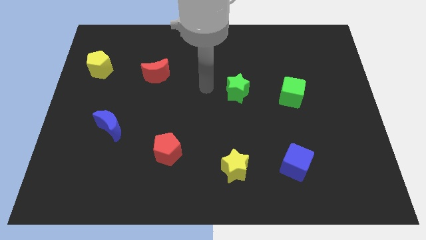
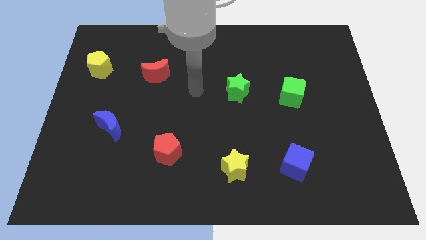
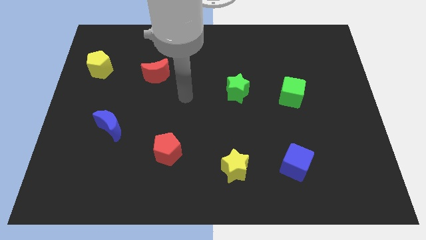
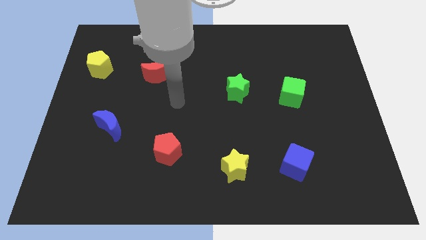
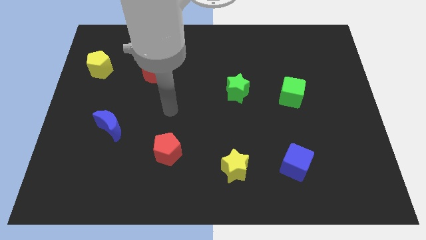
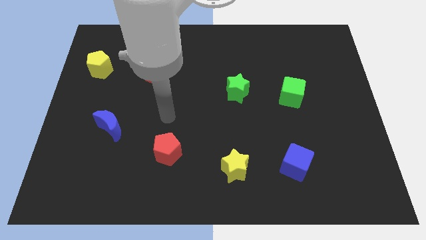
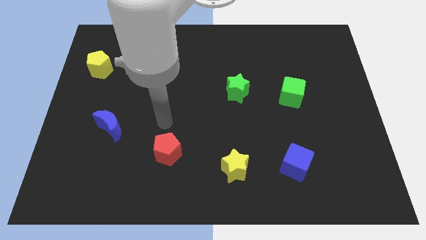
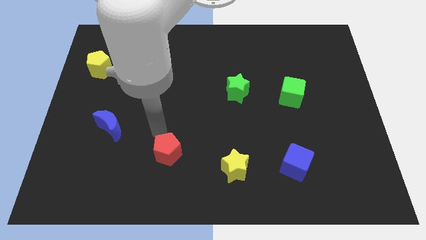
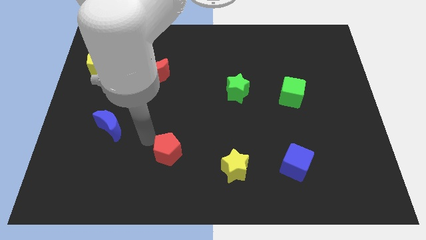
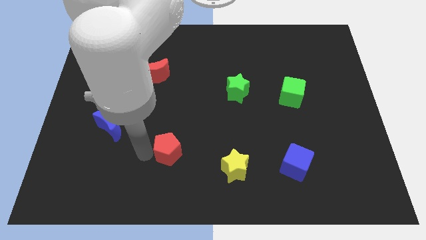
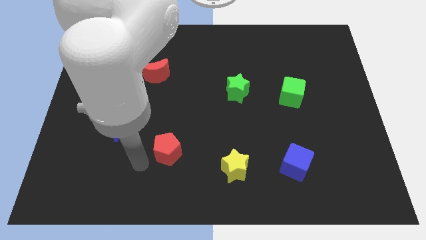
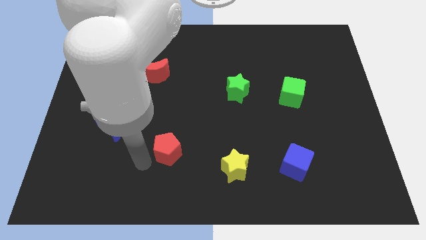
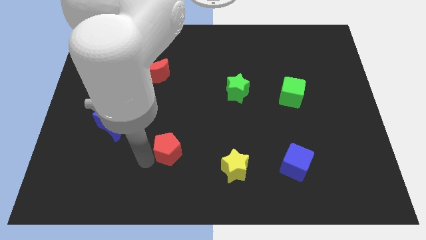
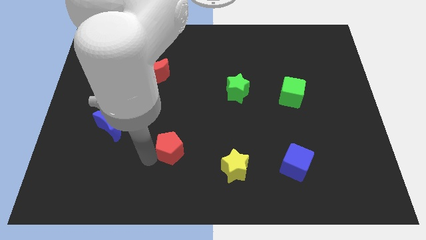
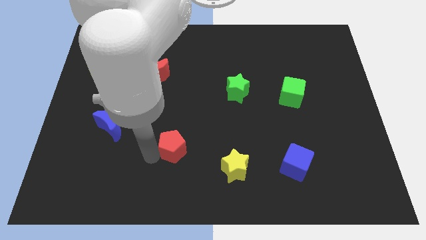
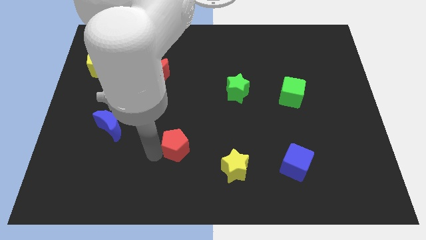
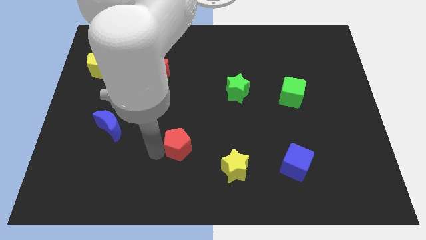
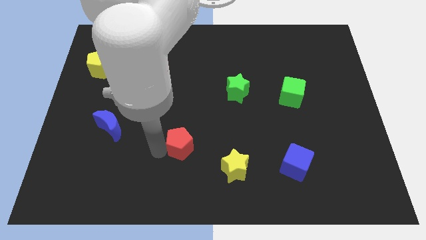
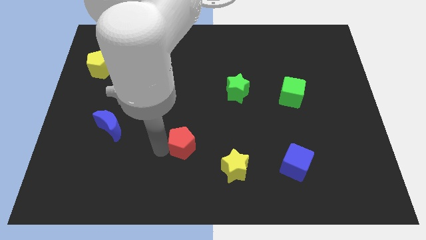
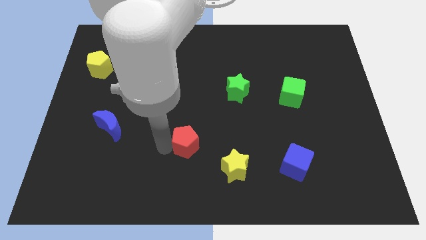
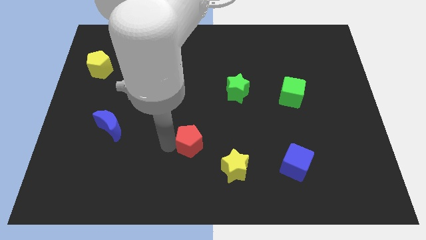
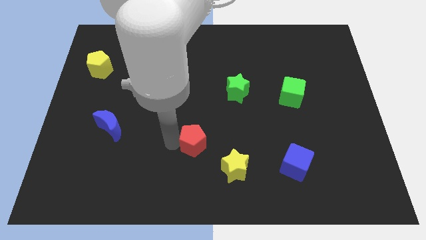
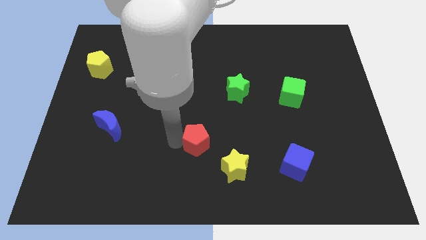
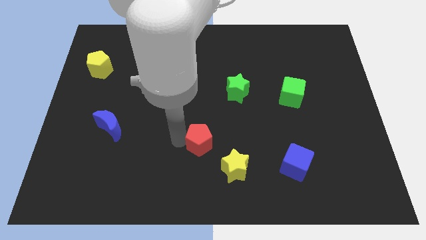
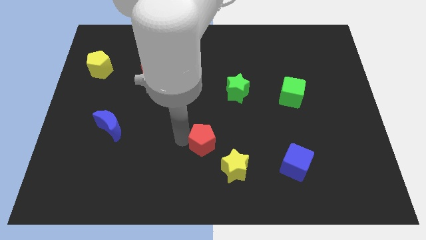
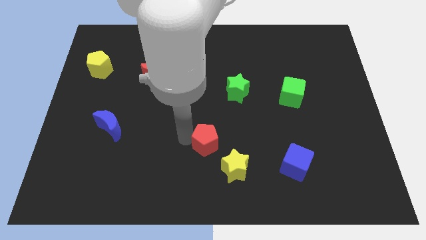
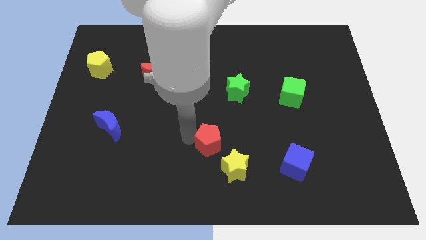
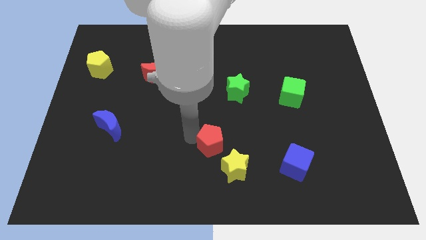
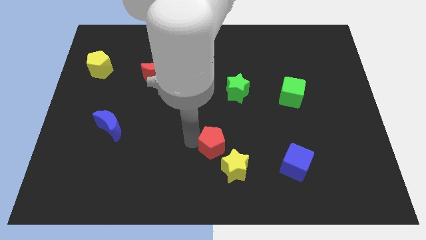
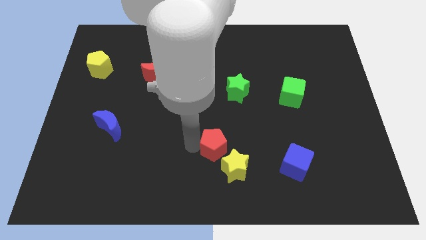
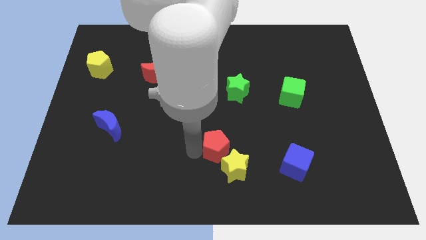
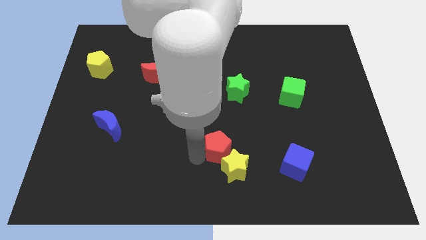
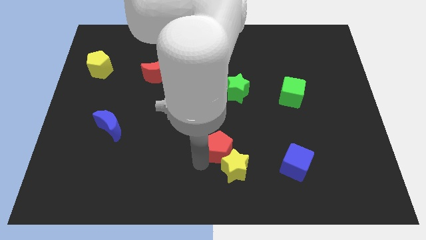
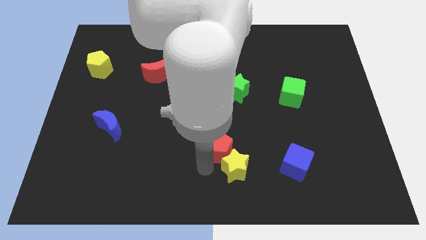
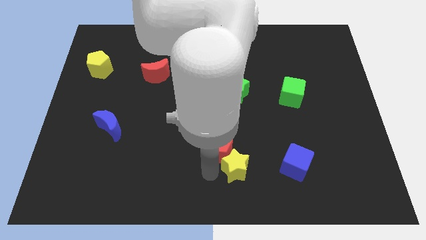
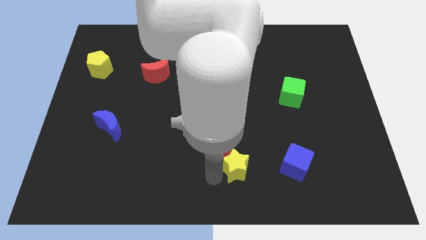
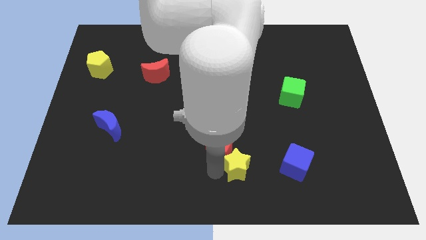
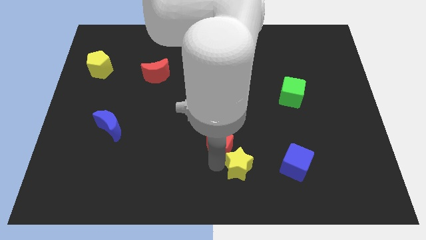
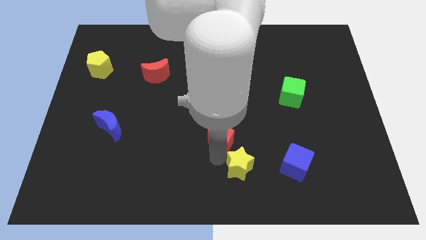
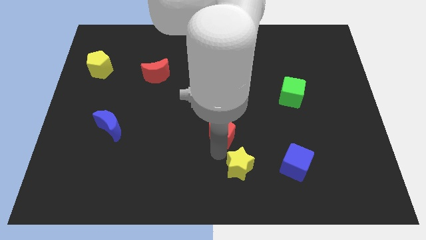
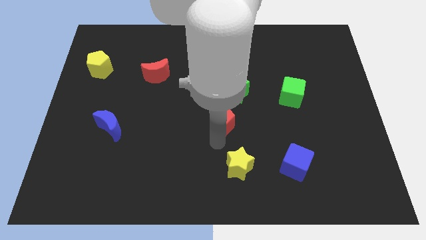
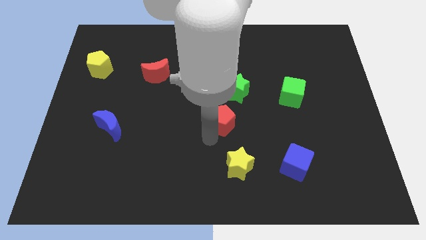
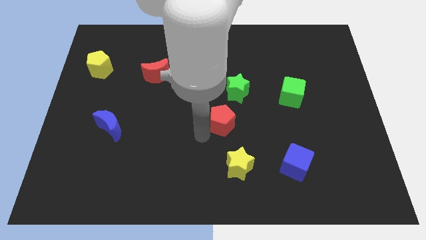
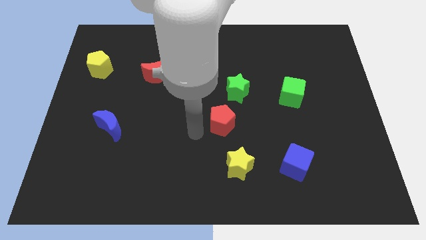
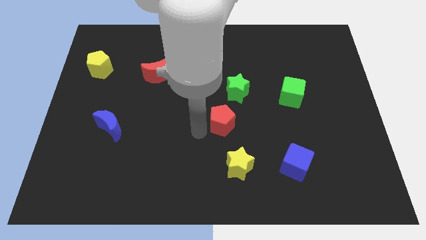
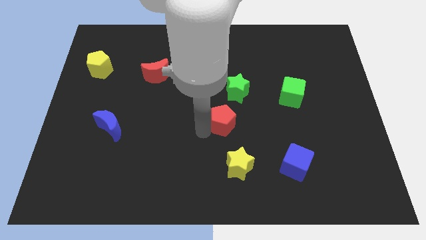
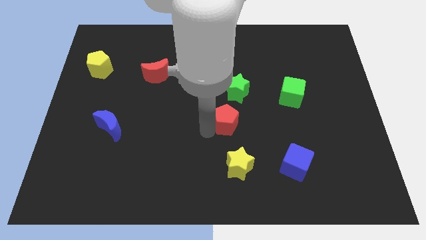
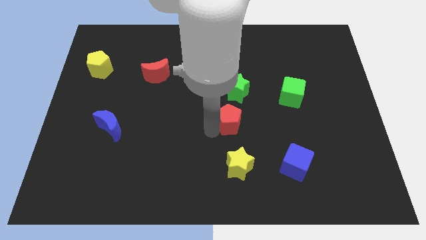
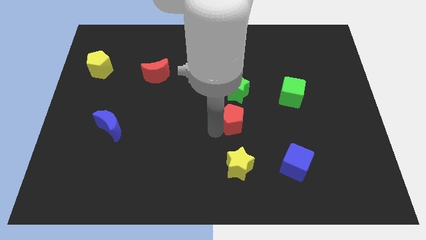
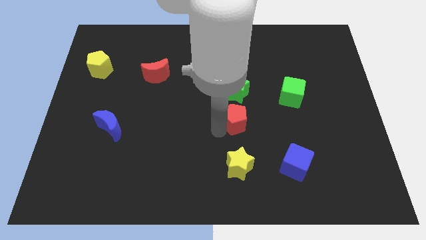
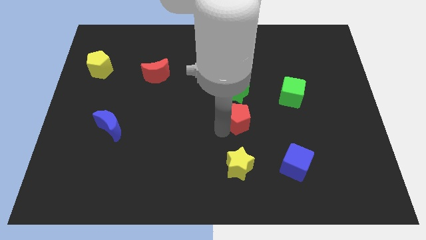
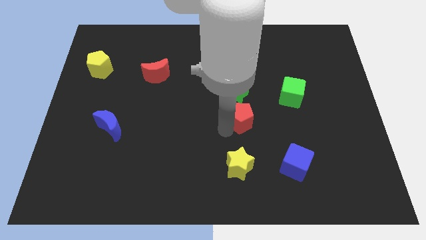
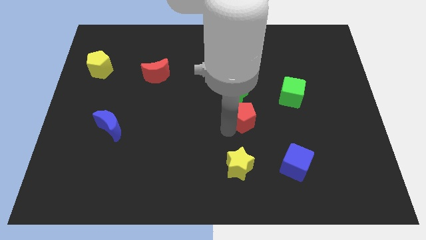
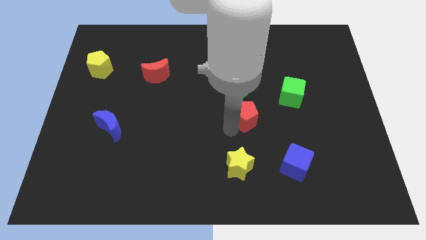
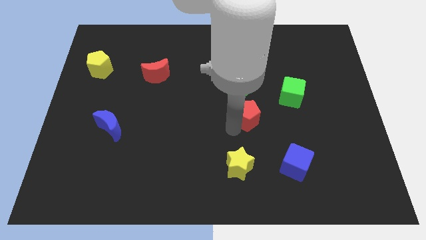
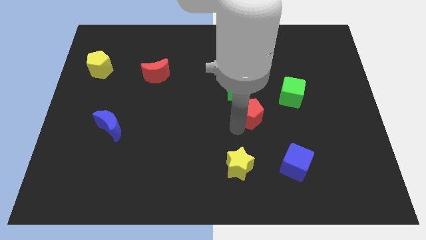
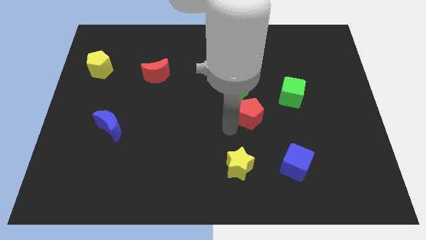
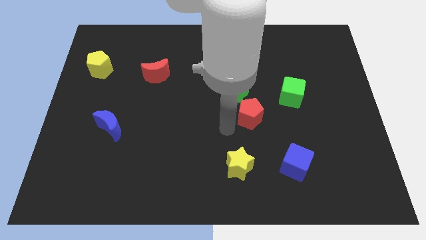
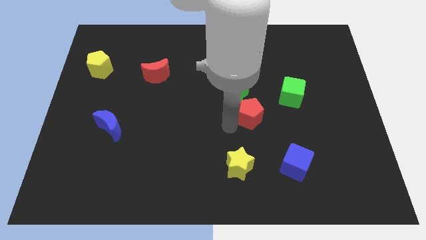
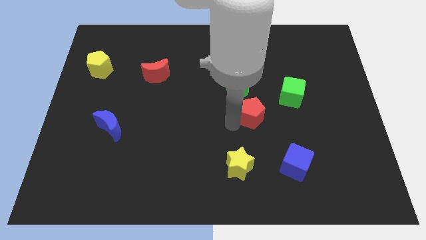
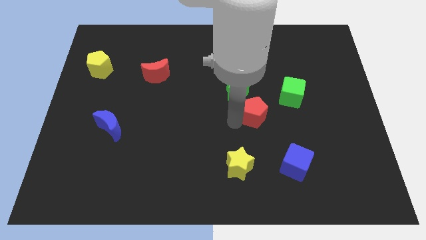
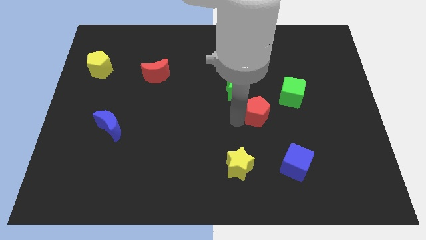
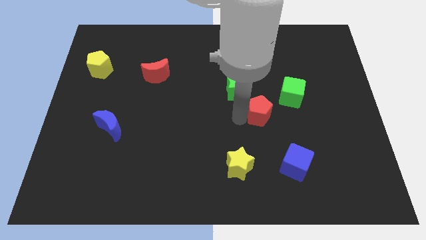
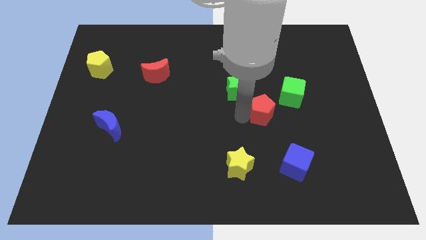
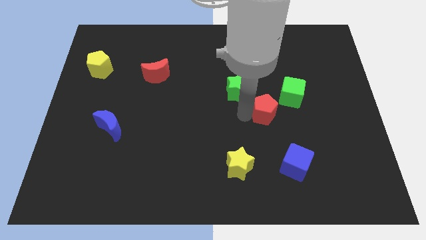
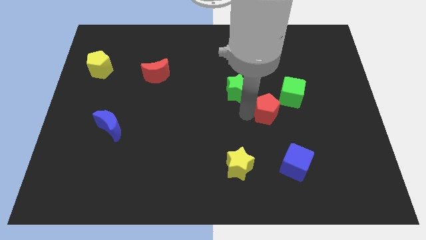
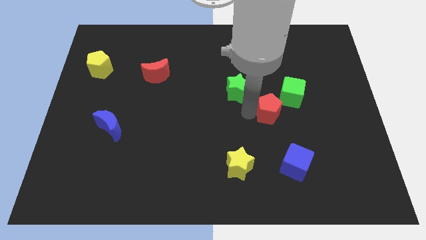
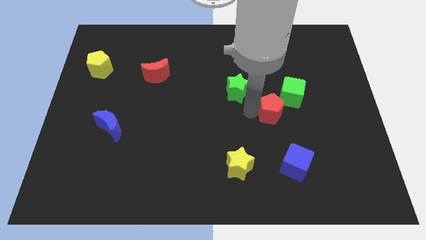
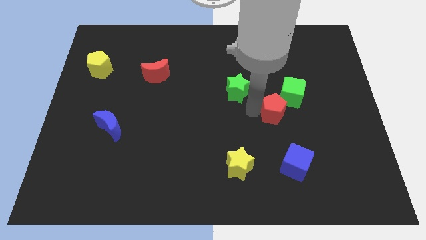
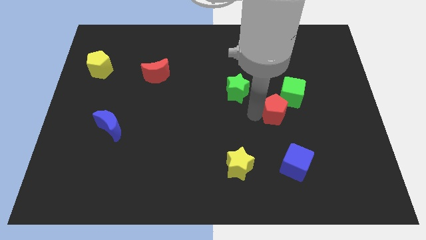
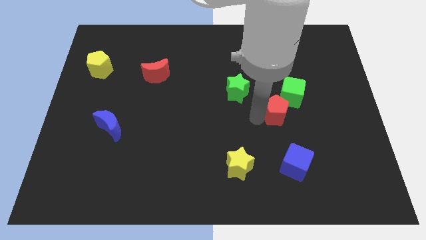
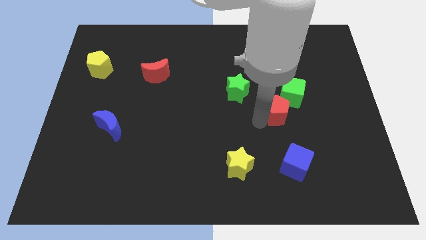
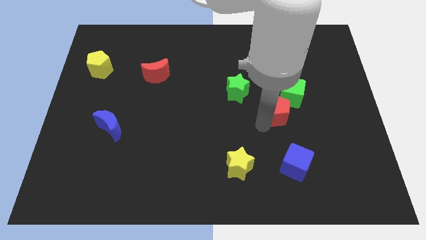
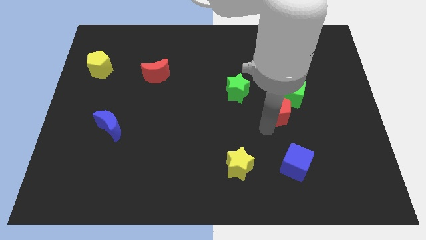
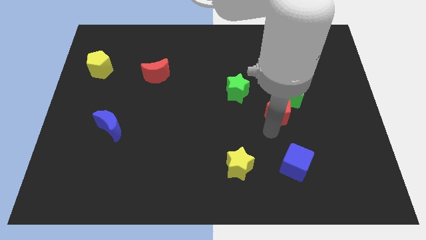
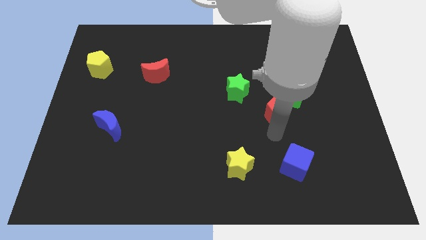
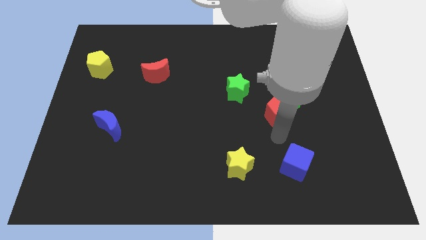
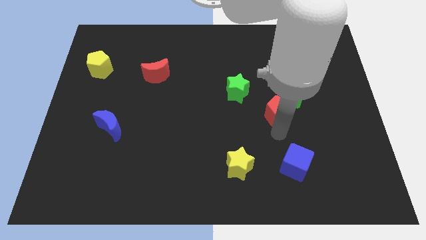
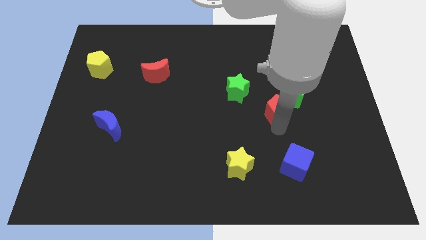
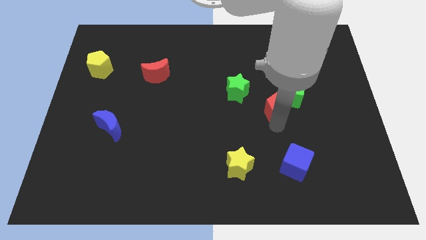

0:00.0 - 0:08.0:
move the red pentagon close to the green cube
